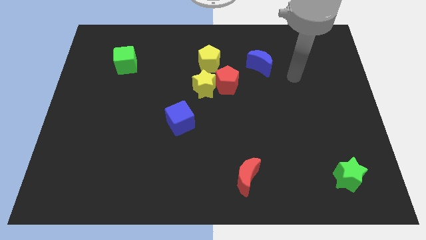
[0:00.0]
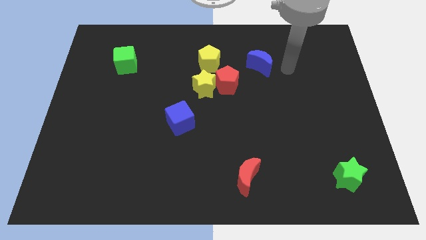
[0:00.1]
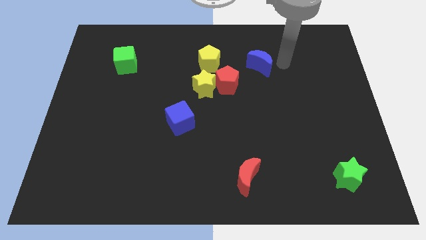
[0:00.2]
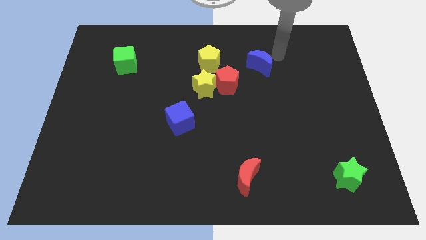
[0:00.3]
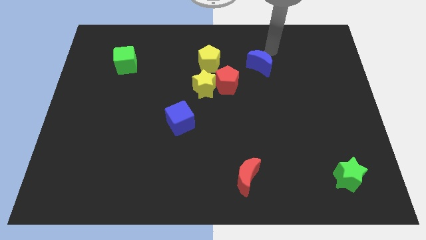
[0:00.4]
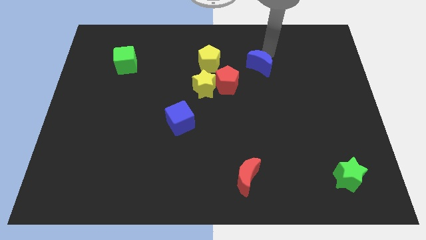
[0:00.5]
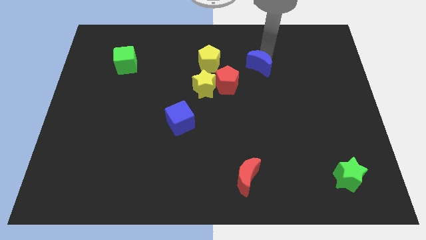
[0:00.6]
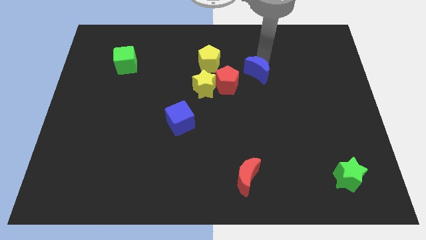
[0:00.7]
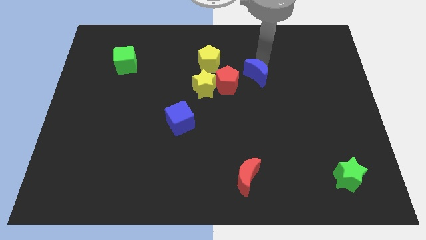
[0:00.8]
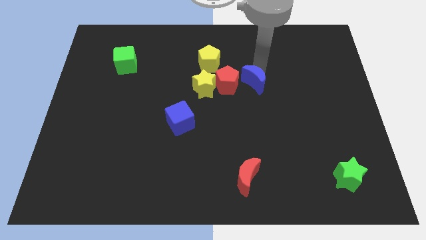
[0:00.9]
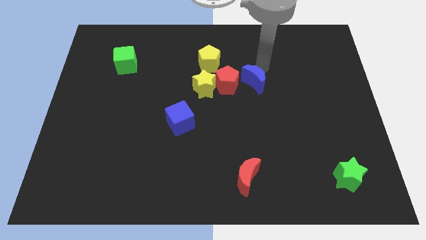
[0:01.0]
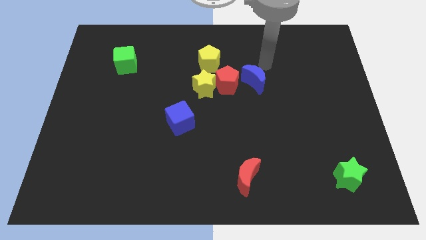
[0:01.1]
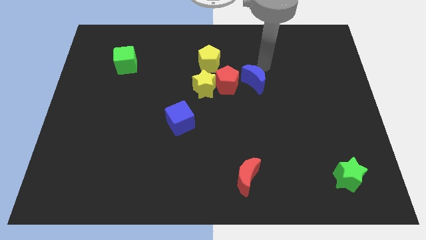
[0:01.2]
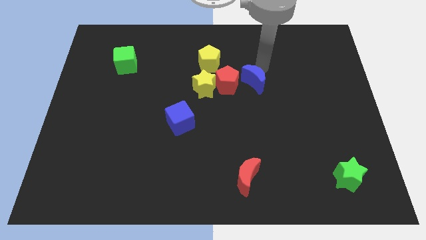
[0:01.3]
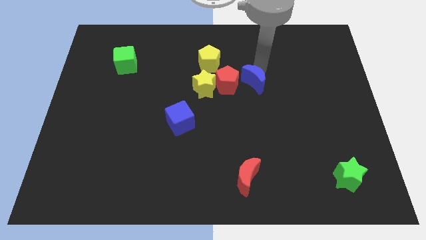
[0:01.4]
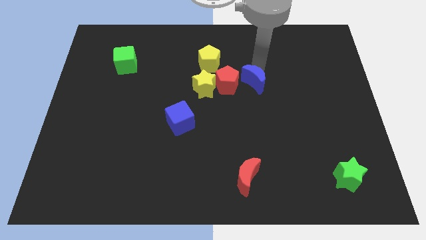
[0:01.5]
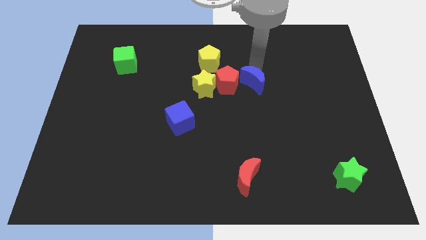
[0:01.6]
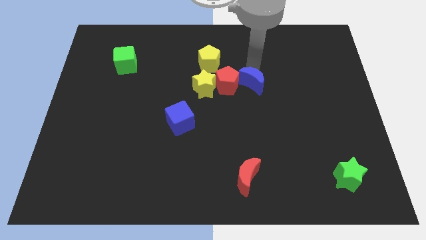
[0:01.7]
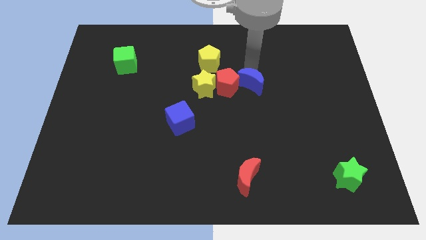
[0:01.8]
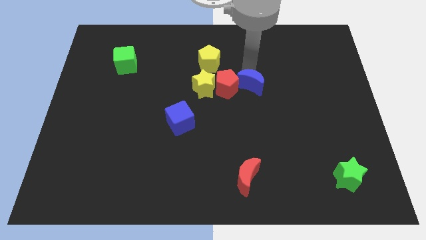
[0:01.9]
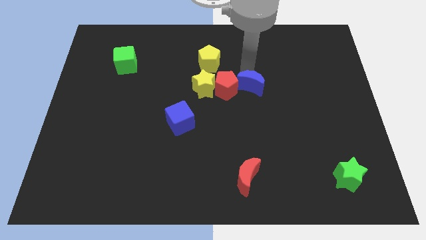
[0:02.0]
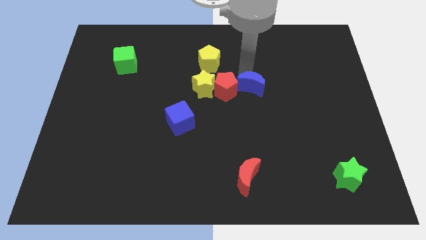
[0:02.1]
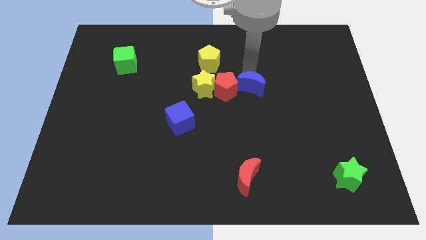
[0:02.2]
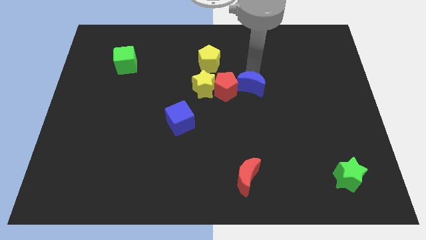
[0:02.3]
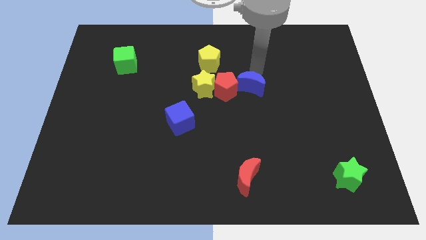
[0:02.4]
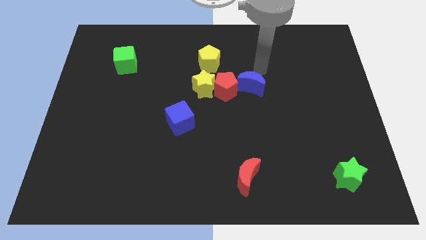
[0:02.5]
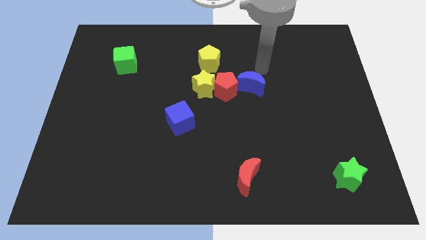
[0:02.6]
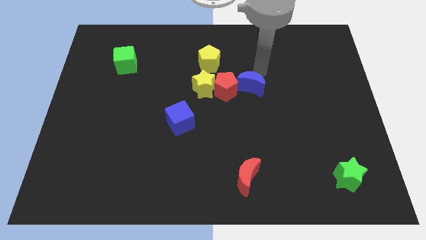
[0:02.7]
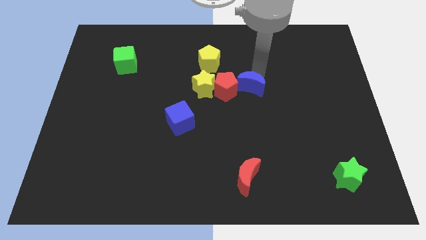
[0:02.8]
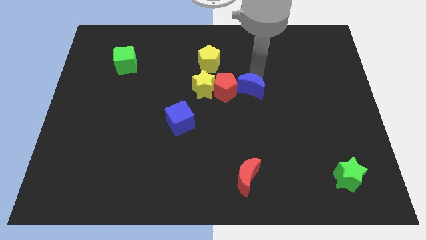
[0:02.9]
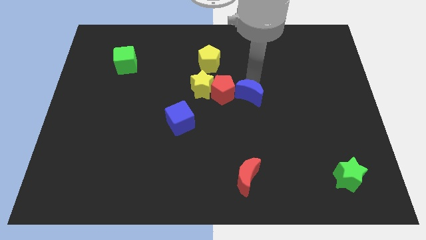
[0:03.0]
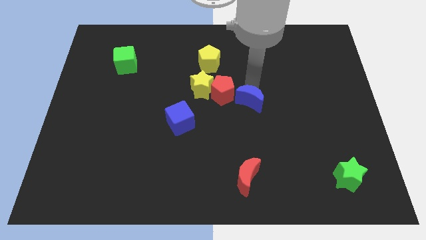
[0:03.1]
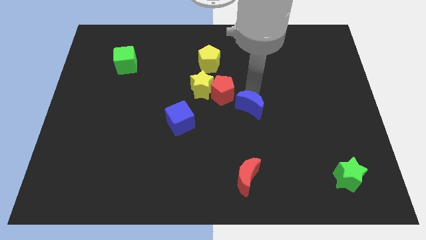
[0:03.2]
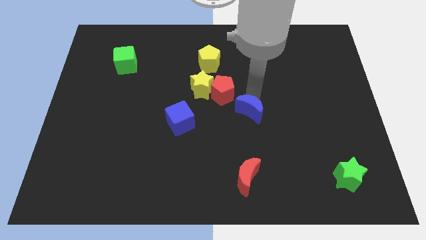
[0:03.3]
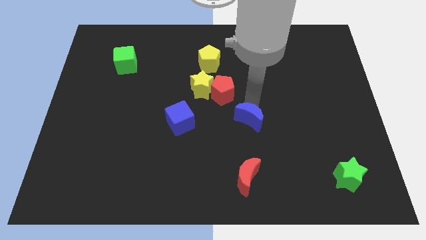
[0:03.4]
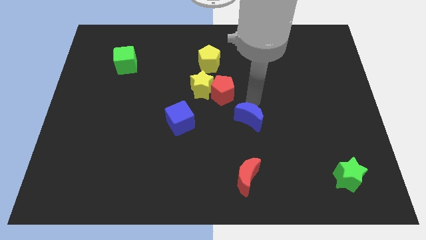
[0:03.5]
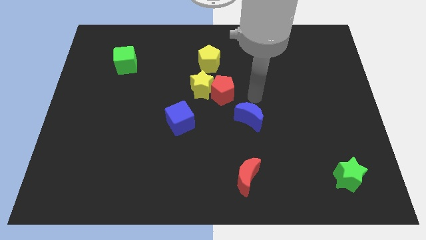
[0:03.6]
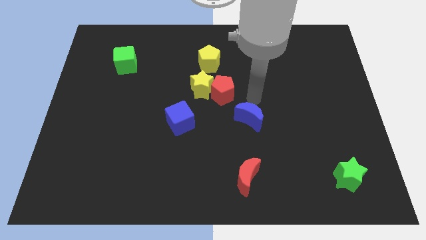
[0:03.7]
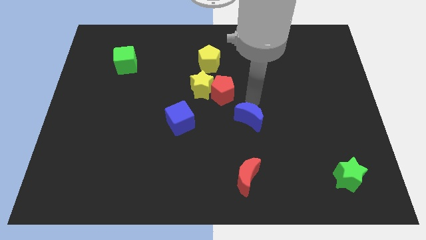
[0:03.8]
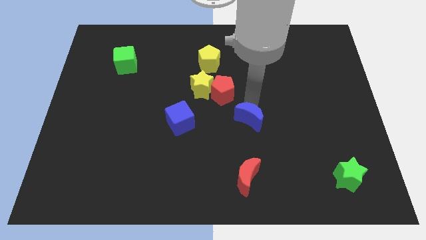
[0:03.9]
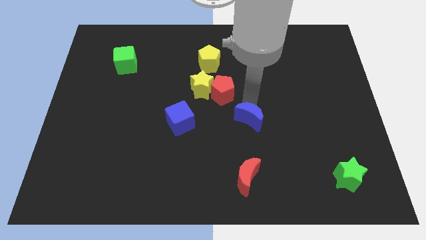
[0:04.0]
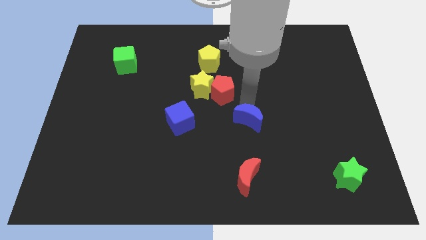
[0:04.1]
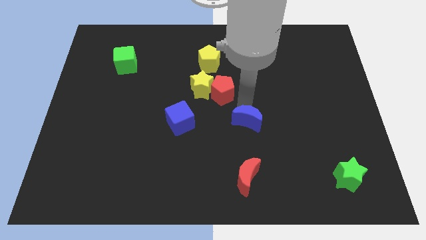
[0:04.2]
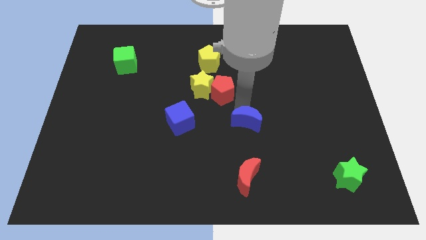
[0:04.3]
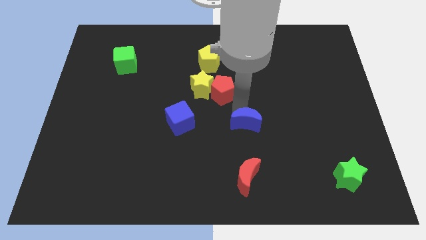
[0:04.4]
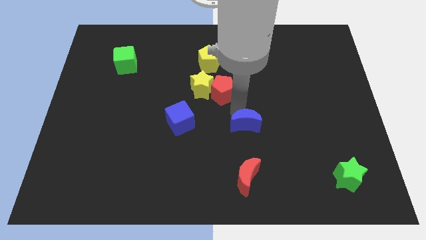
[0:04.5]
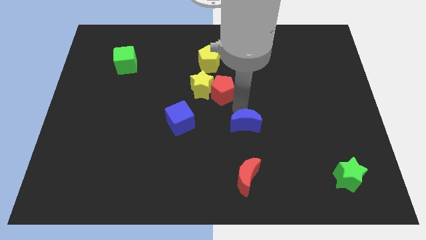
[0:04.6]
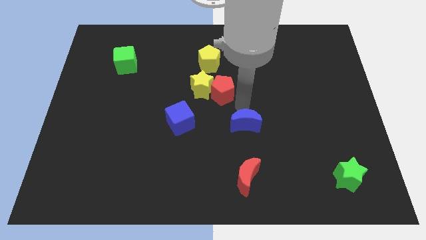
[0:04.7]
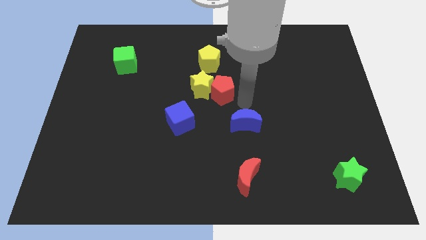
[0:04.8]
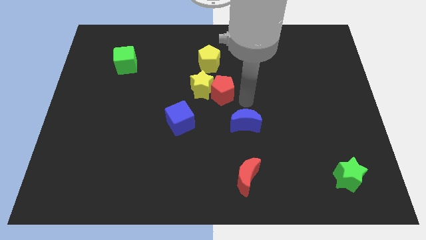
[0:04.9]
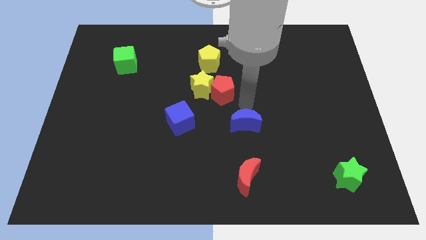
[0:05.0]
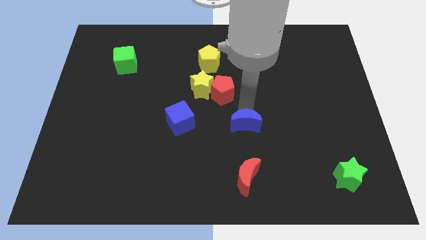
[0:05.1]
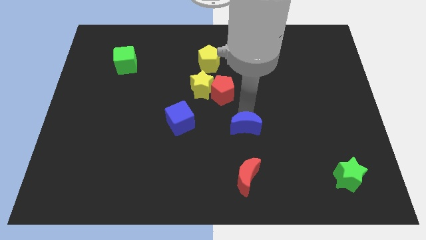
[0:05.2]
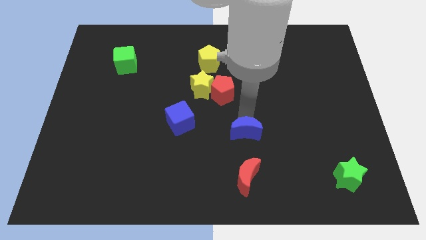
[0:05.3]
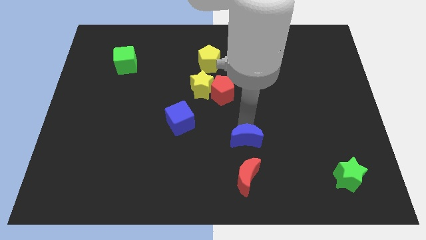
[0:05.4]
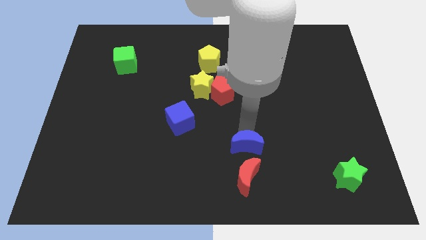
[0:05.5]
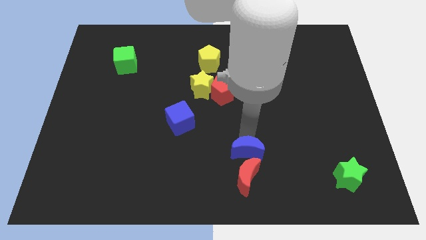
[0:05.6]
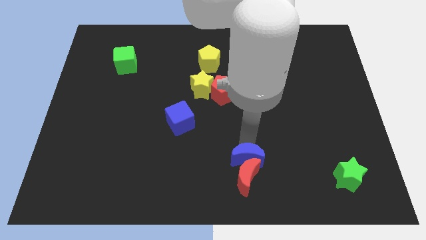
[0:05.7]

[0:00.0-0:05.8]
move the blue moon towards the red moon

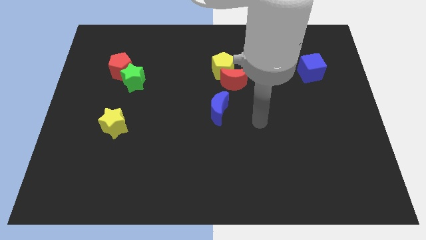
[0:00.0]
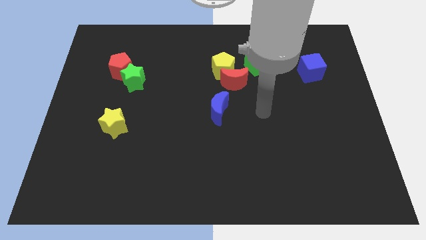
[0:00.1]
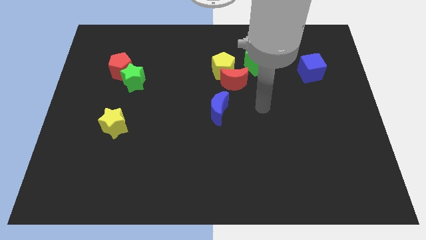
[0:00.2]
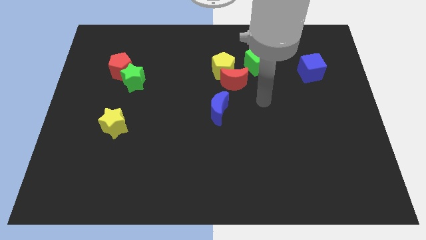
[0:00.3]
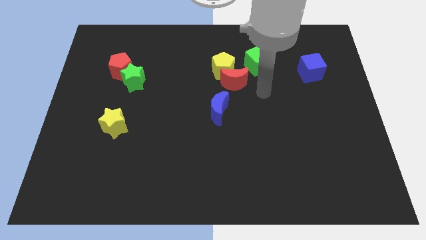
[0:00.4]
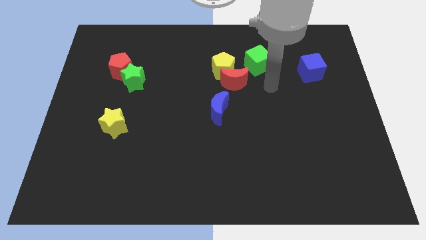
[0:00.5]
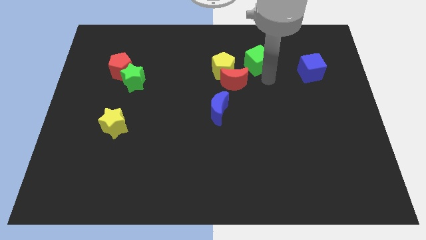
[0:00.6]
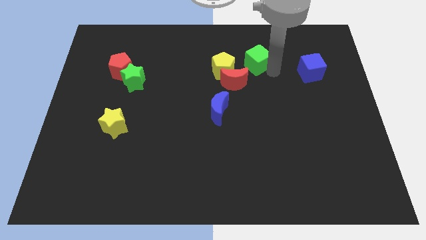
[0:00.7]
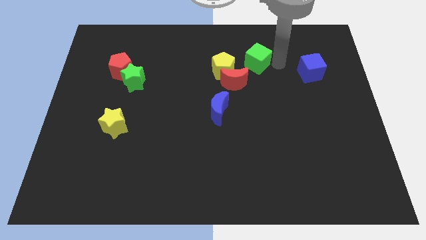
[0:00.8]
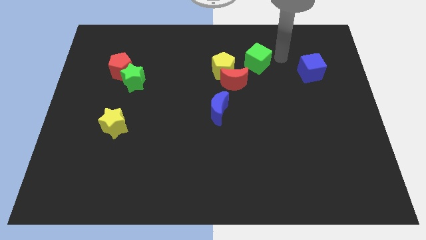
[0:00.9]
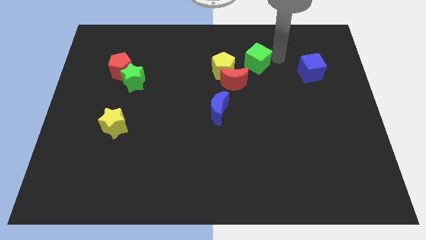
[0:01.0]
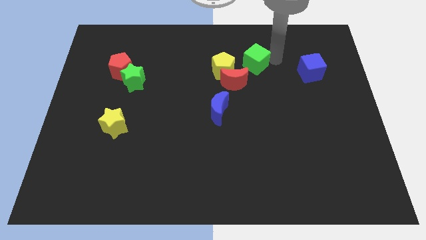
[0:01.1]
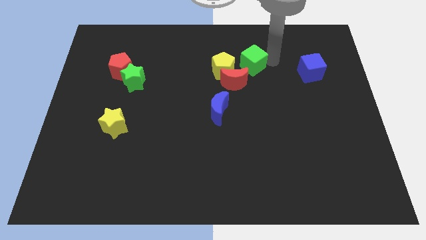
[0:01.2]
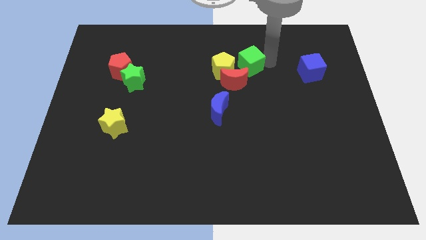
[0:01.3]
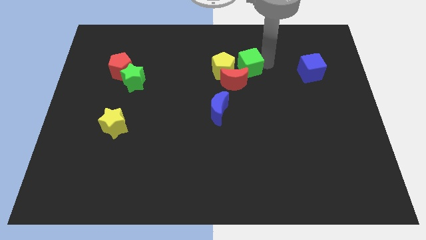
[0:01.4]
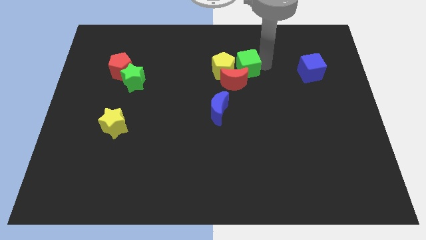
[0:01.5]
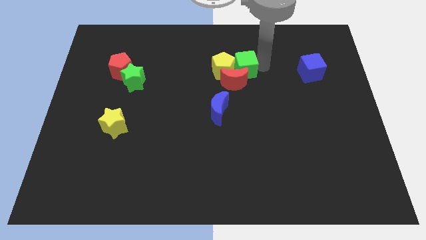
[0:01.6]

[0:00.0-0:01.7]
move the green cube next to the yellow pentagon
